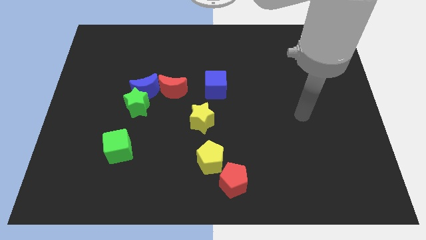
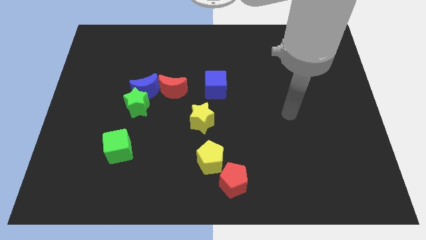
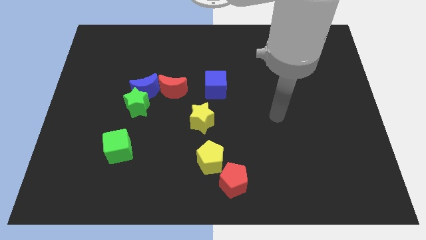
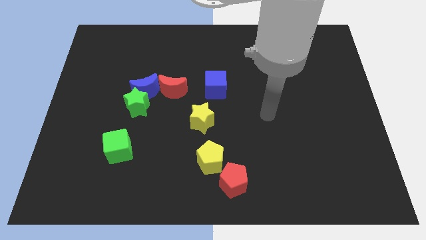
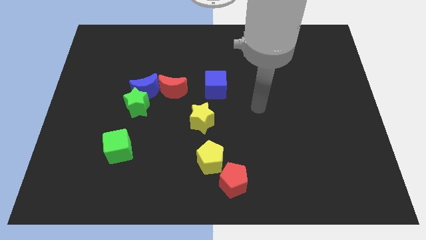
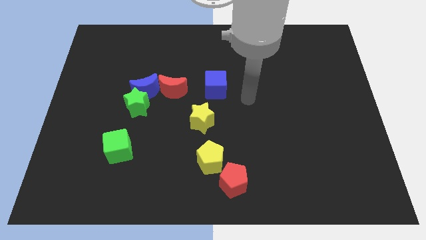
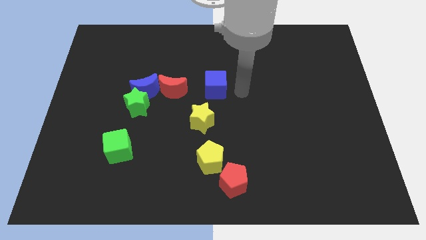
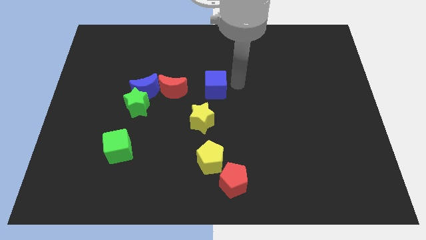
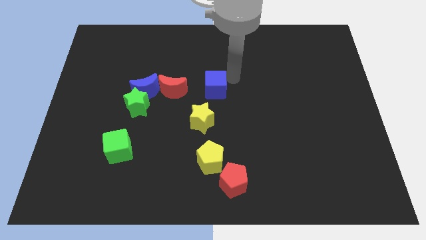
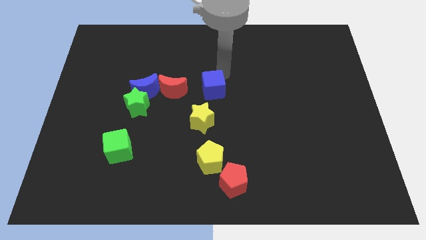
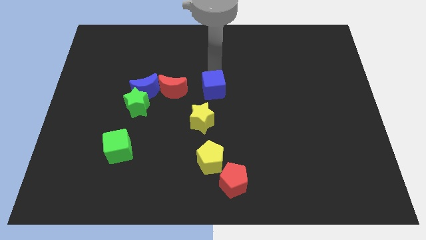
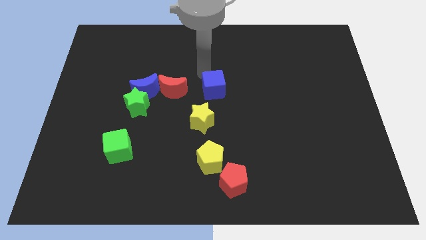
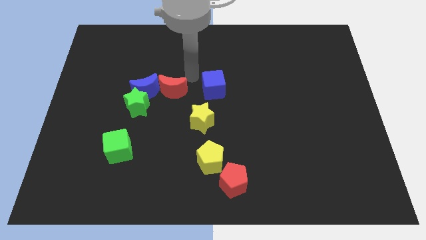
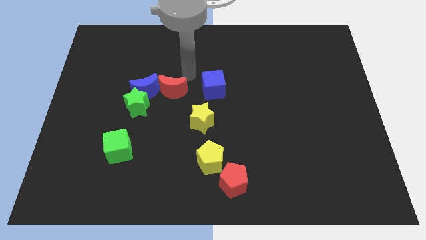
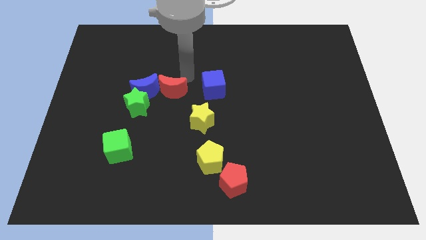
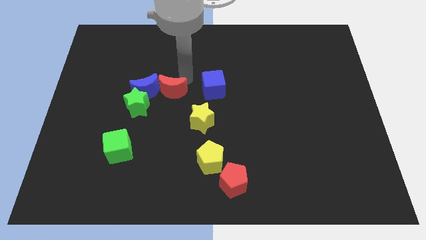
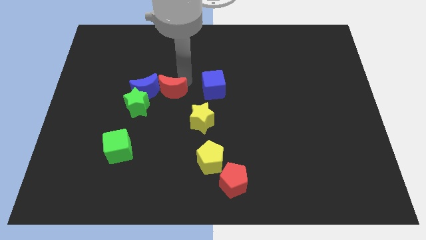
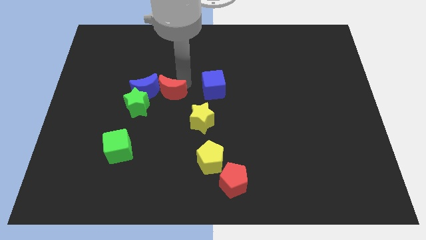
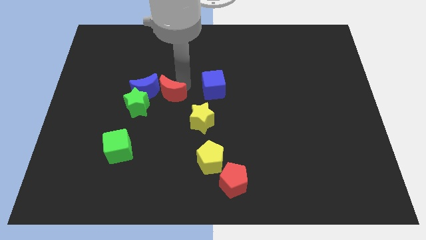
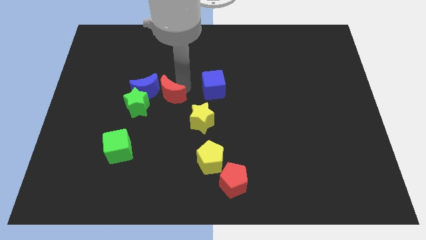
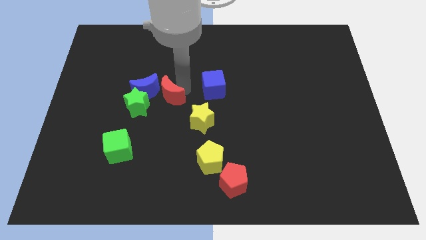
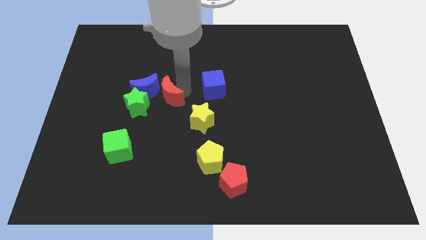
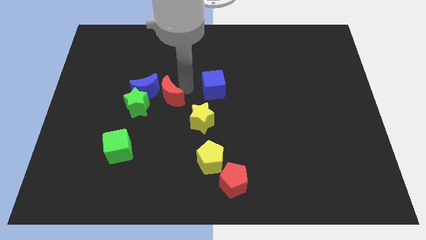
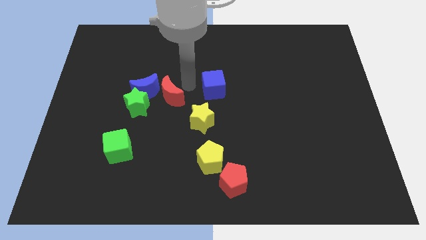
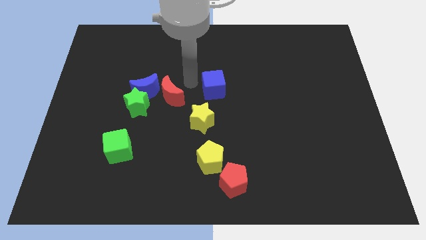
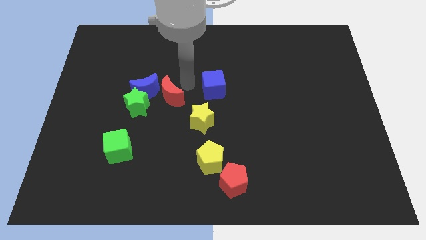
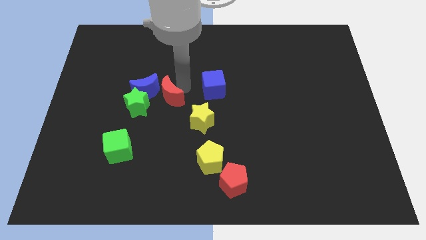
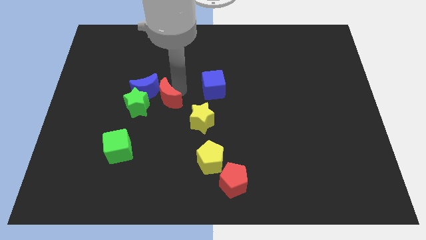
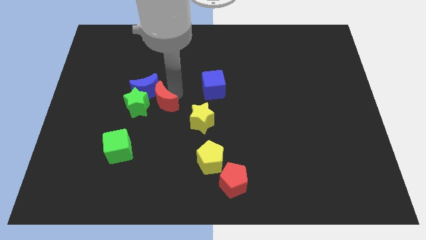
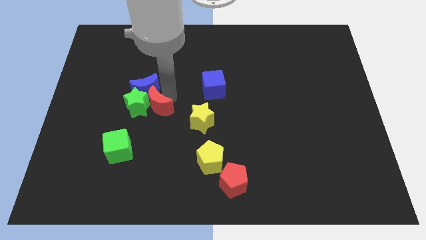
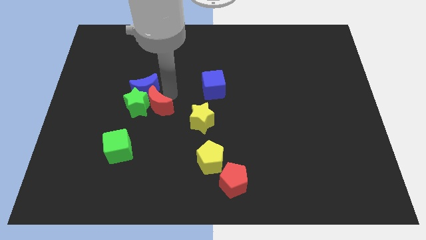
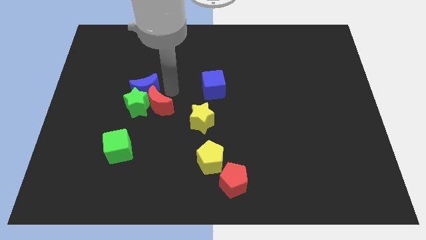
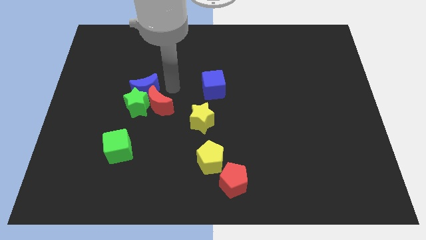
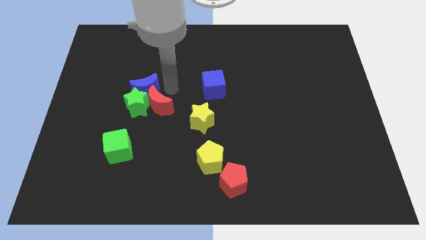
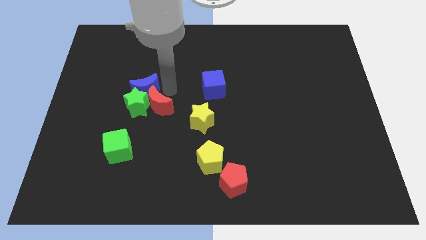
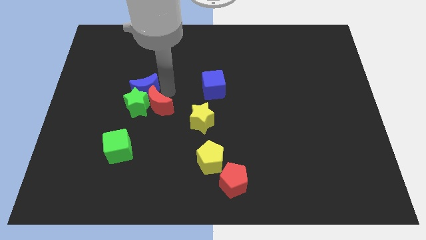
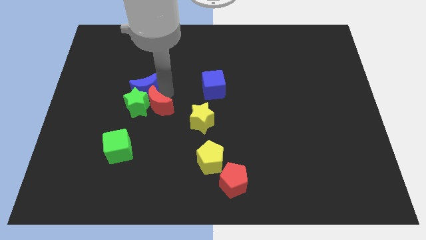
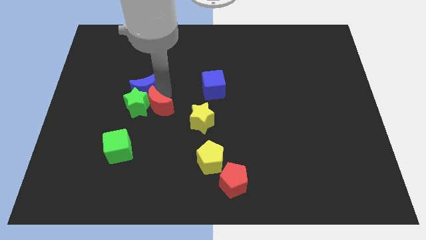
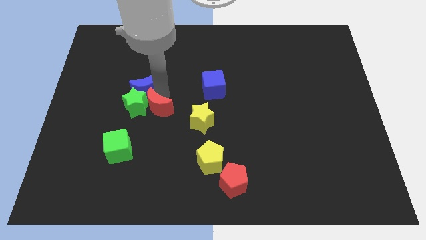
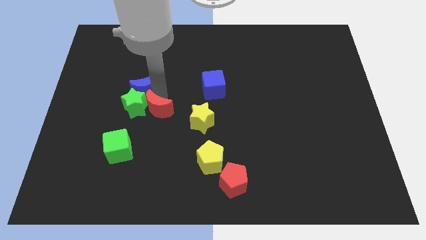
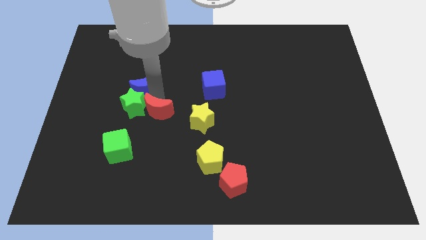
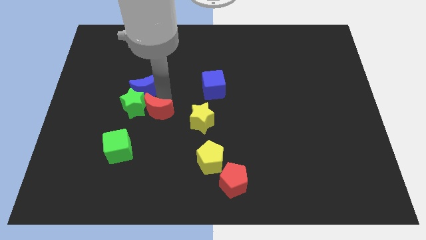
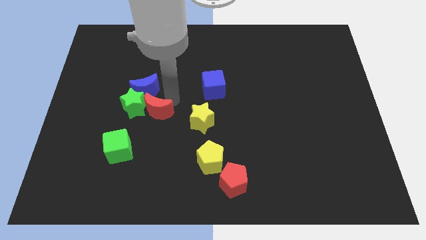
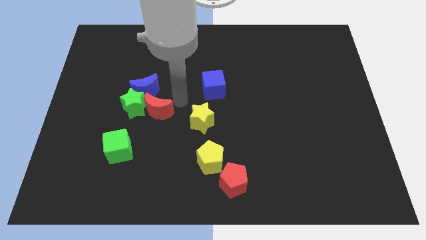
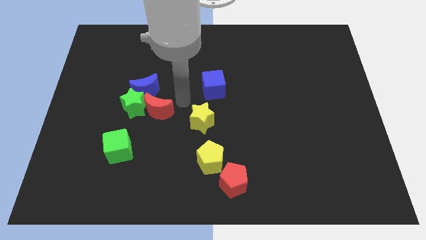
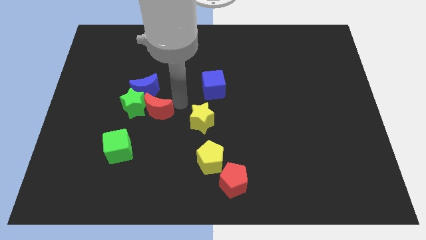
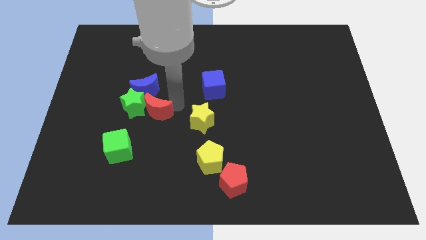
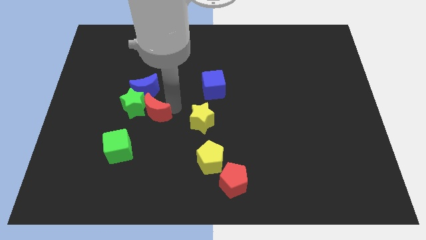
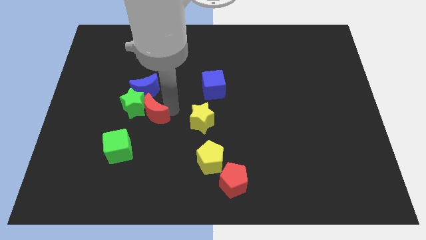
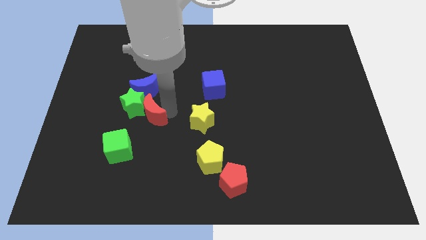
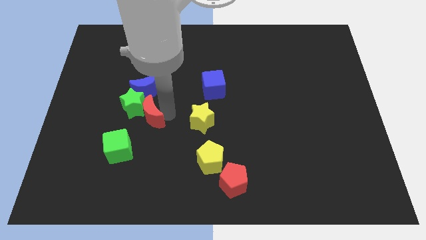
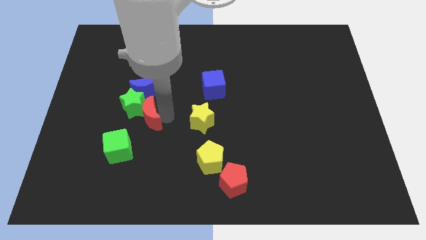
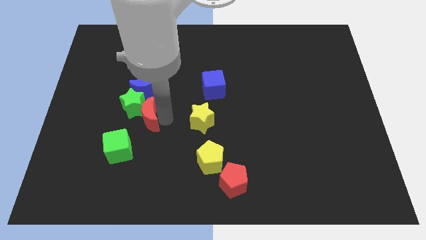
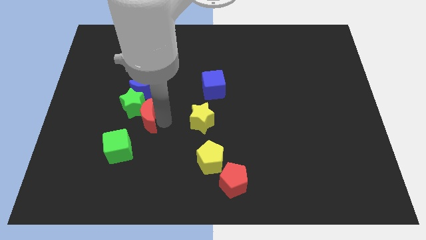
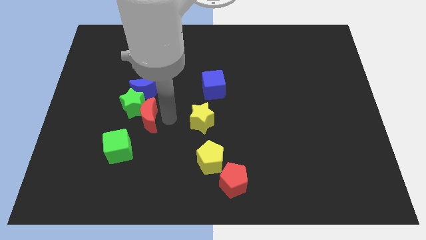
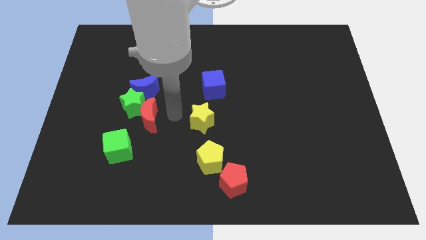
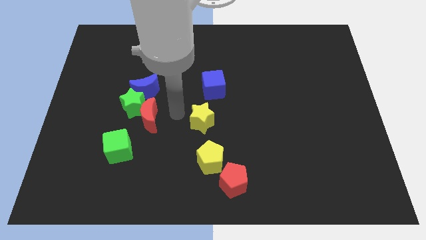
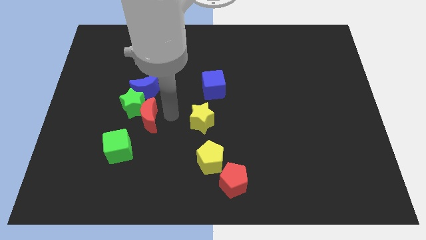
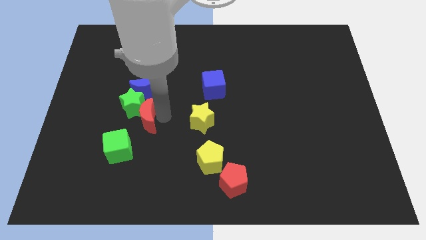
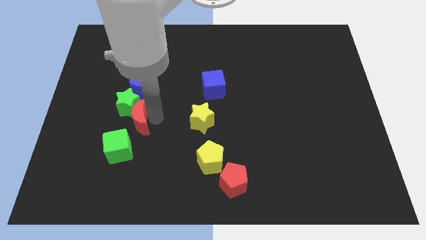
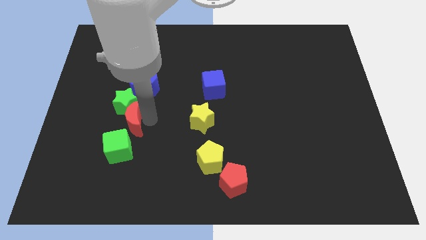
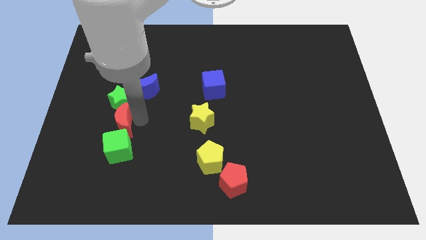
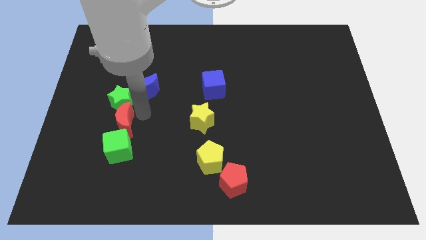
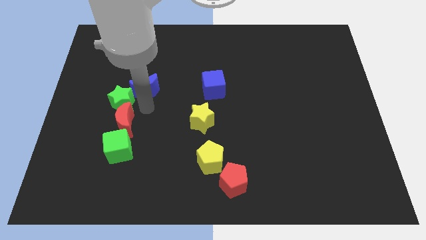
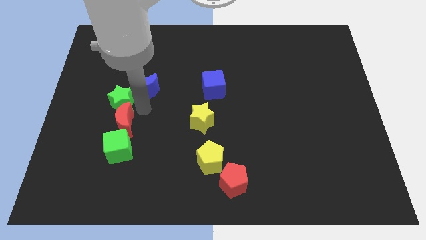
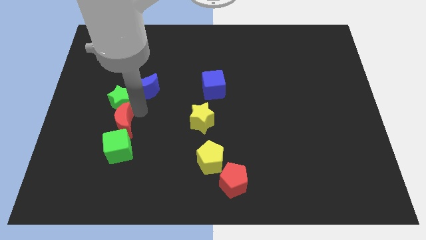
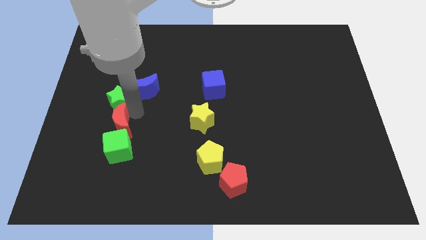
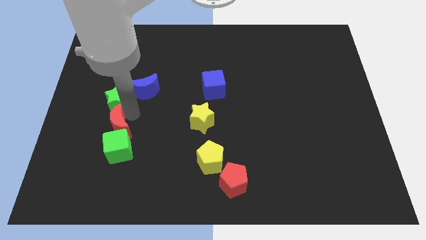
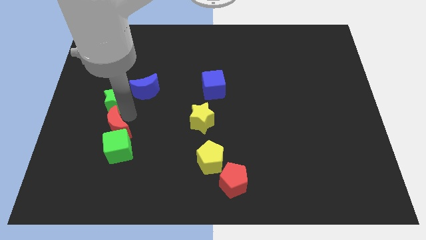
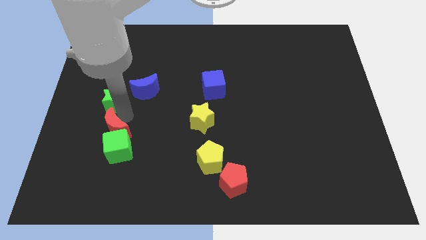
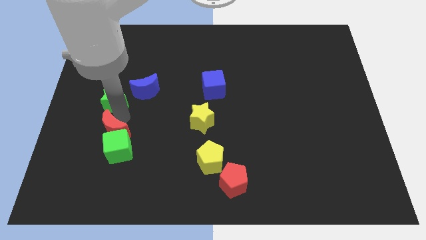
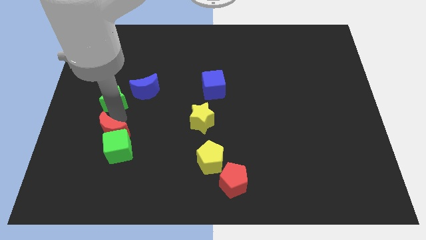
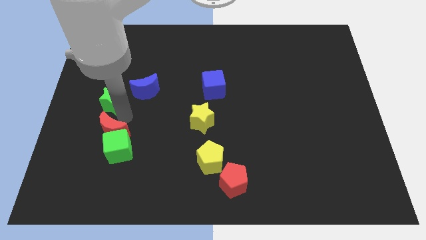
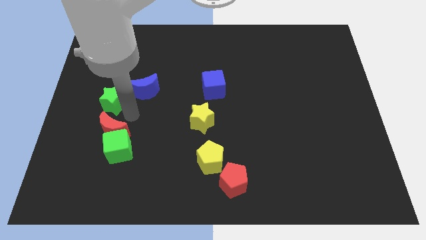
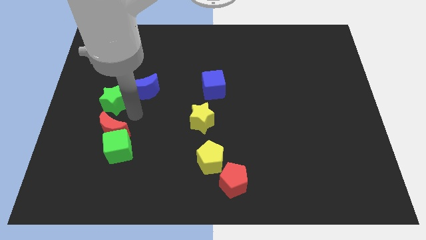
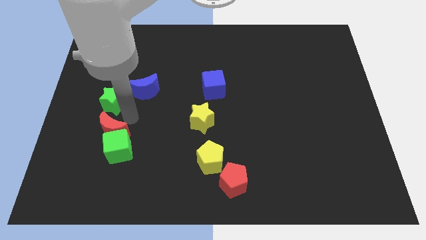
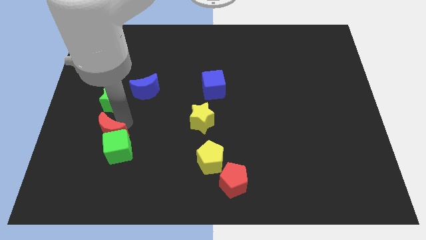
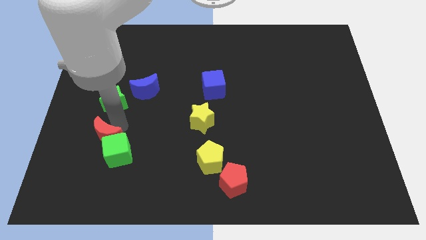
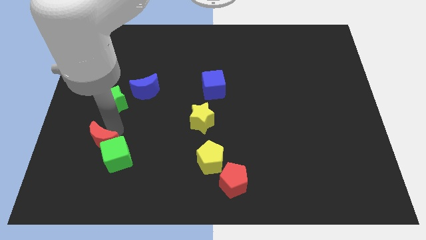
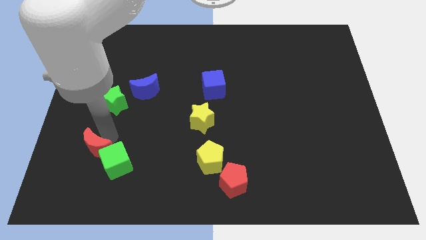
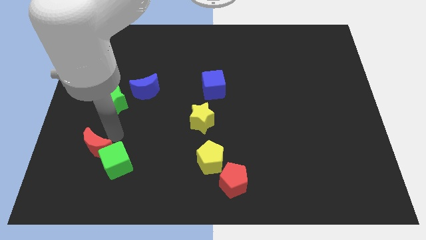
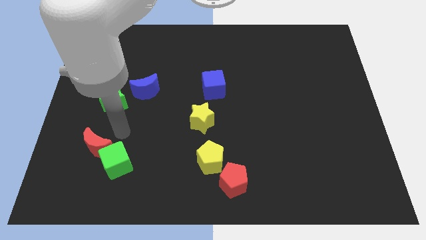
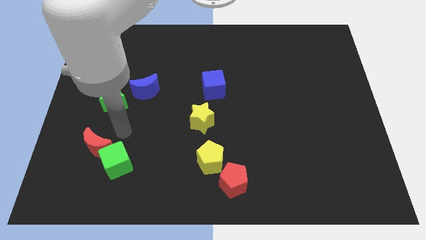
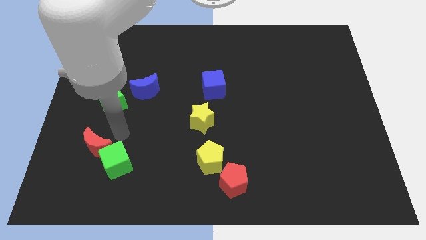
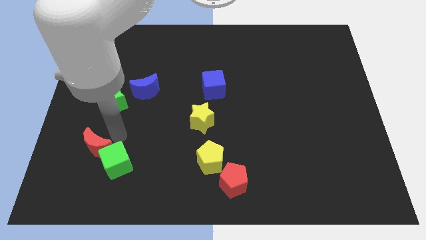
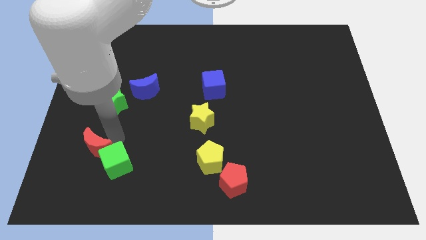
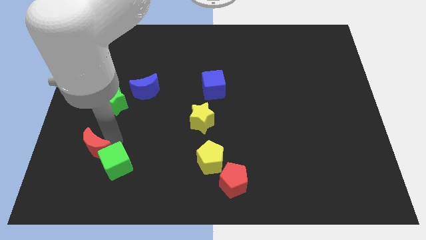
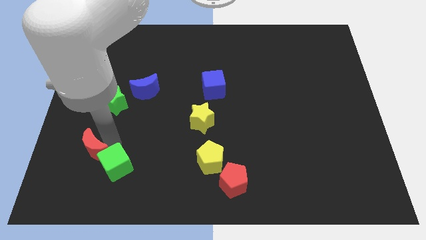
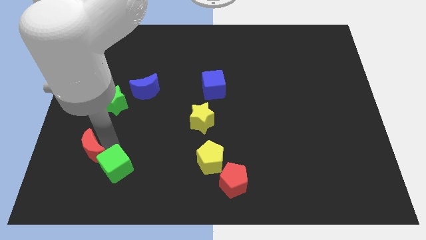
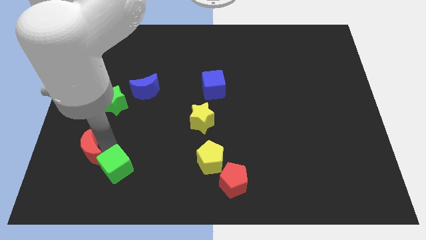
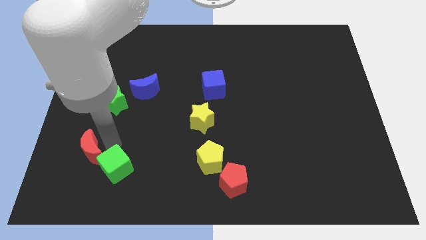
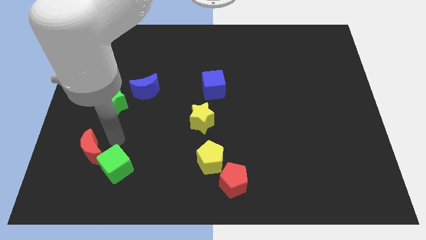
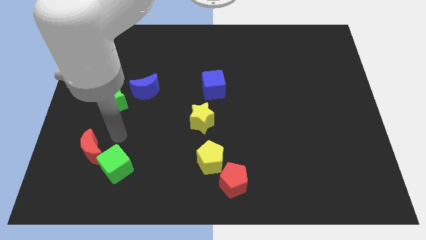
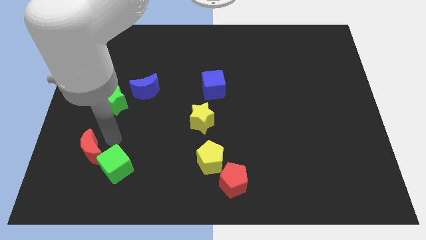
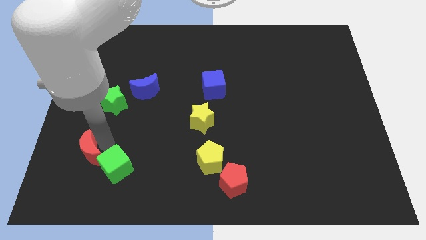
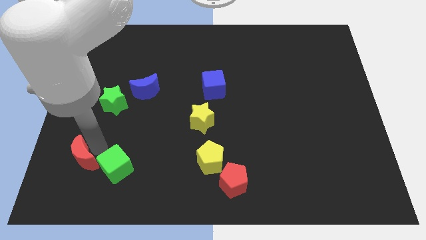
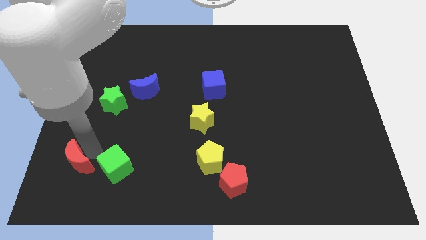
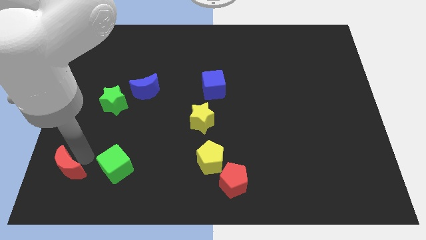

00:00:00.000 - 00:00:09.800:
put the red moon to the lower left corner
